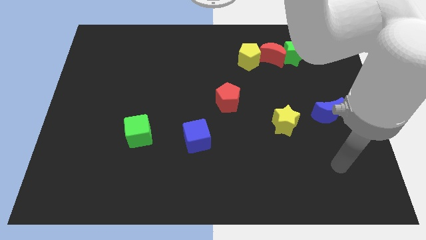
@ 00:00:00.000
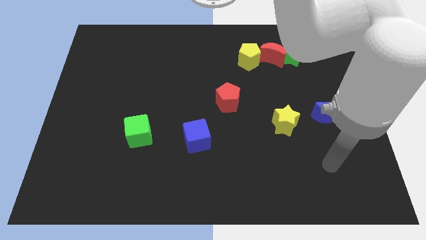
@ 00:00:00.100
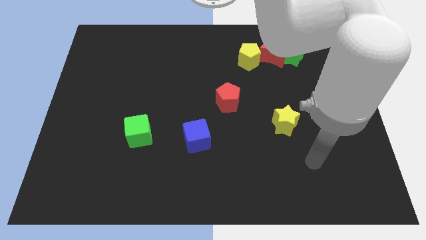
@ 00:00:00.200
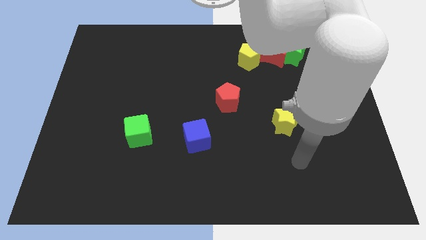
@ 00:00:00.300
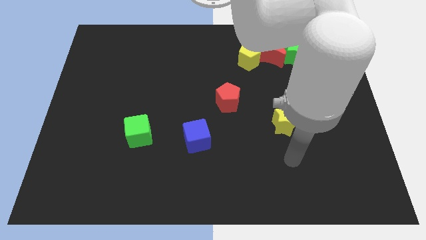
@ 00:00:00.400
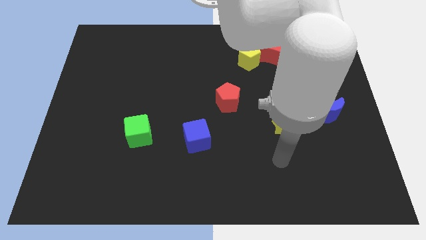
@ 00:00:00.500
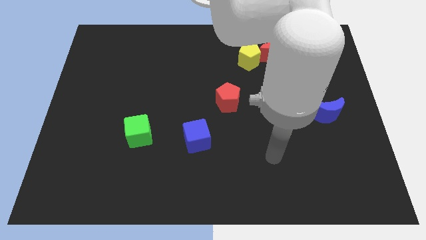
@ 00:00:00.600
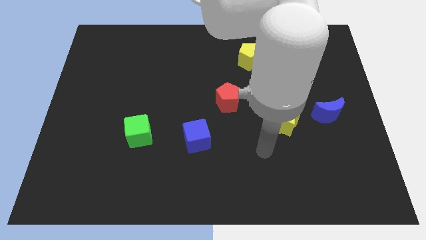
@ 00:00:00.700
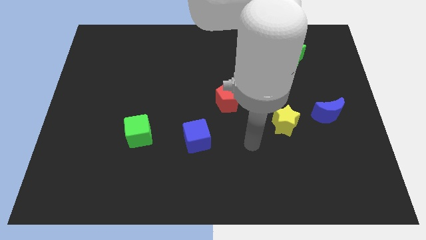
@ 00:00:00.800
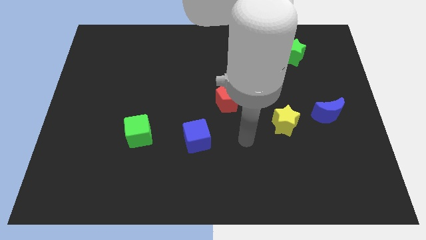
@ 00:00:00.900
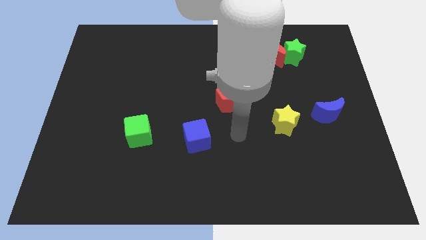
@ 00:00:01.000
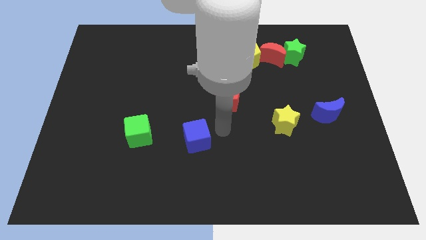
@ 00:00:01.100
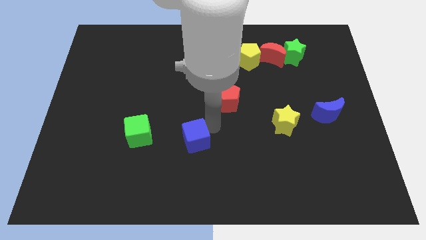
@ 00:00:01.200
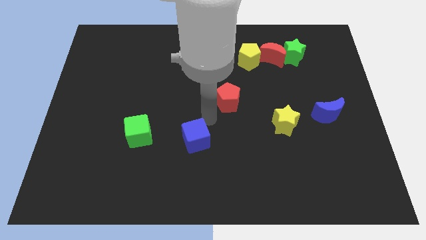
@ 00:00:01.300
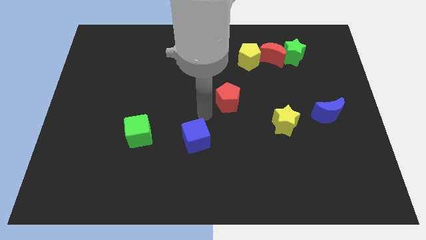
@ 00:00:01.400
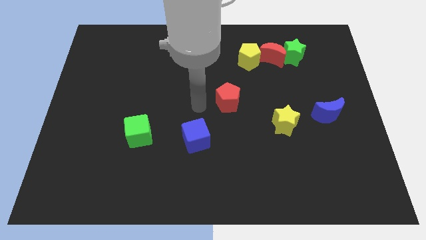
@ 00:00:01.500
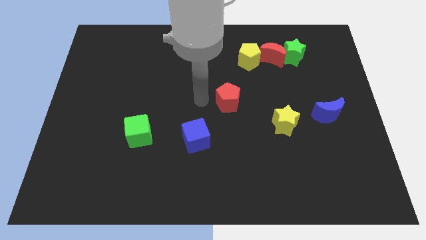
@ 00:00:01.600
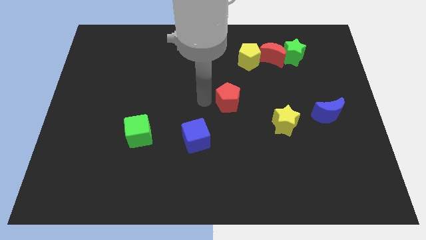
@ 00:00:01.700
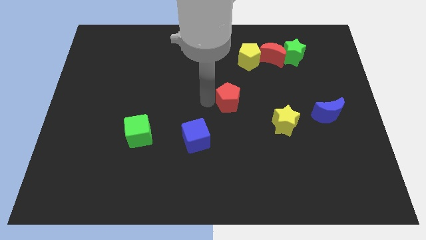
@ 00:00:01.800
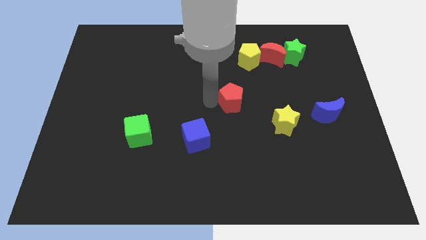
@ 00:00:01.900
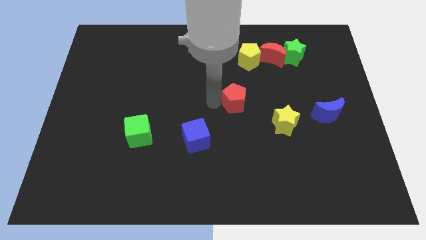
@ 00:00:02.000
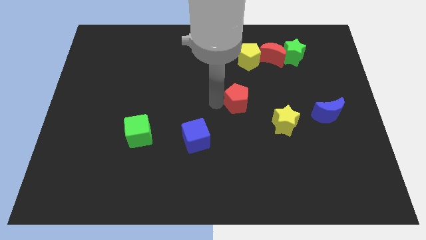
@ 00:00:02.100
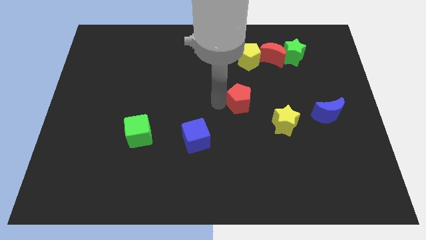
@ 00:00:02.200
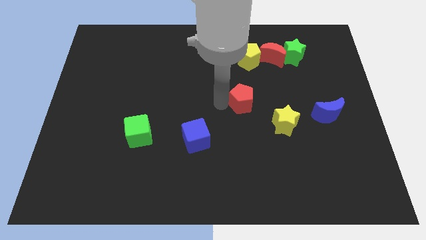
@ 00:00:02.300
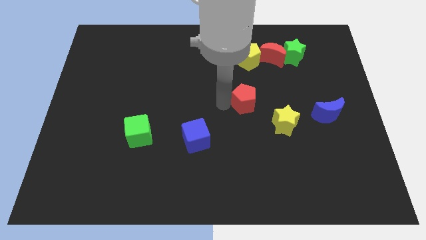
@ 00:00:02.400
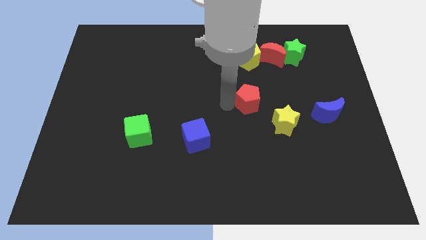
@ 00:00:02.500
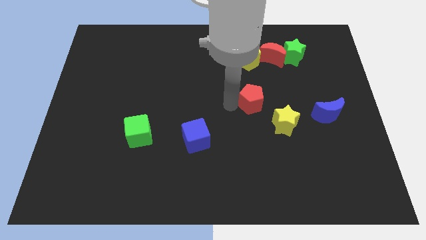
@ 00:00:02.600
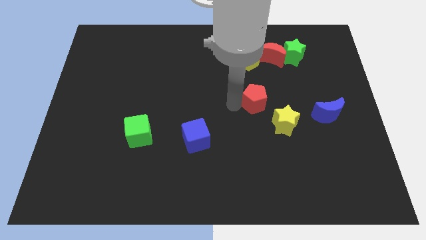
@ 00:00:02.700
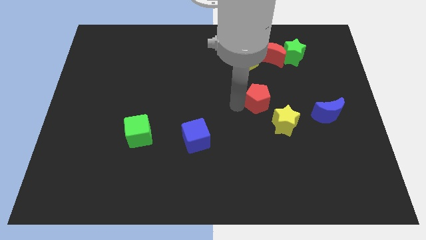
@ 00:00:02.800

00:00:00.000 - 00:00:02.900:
slightly slide the red pentagon right

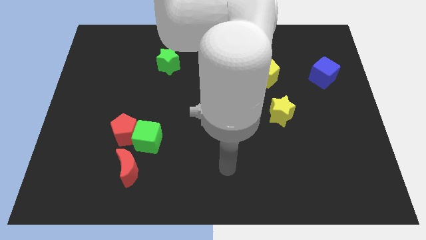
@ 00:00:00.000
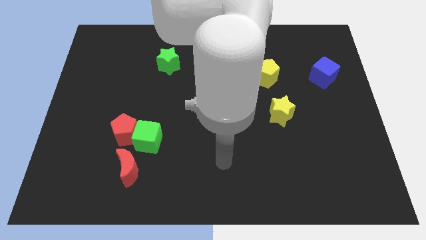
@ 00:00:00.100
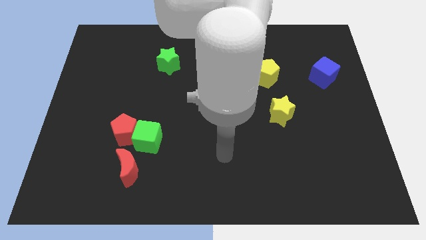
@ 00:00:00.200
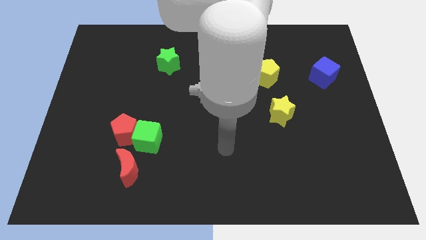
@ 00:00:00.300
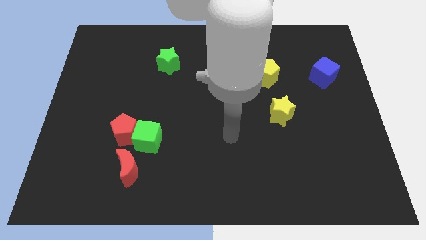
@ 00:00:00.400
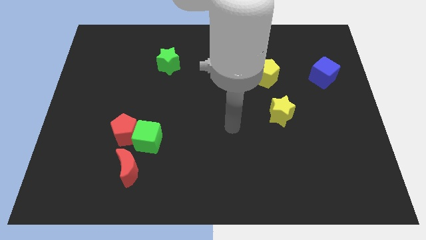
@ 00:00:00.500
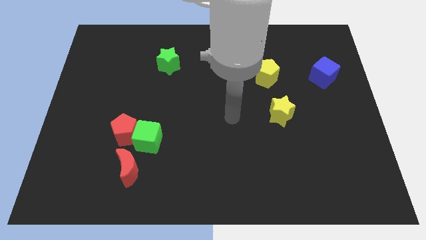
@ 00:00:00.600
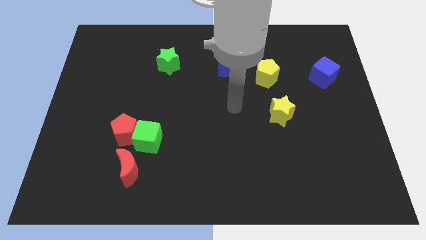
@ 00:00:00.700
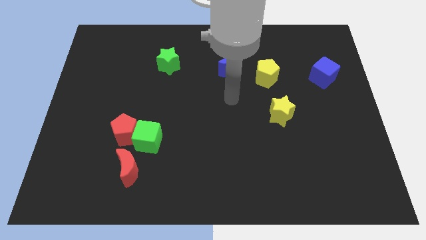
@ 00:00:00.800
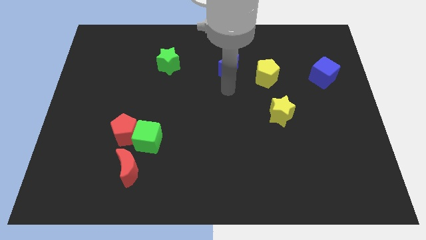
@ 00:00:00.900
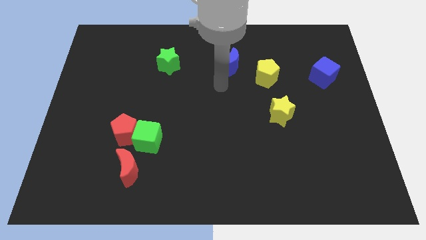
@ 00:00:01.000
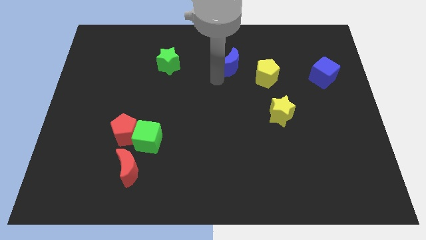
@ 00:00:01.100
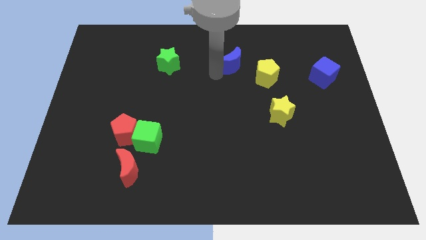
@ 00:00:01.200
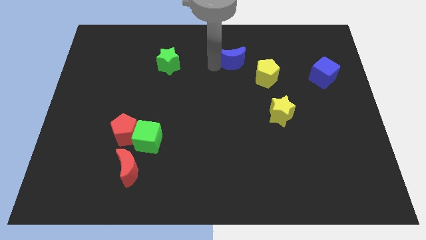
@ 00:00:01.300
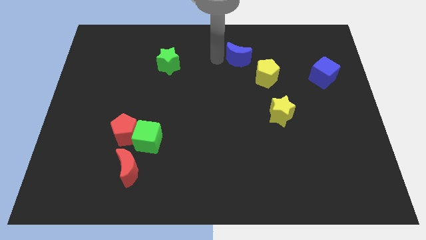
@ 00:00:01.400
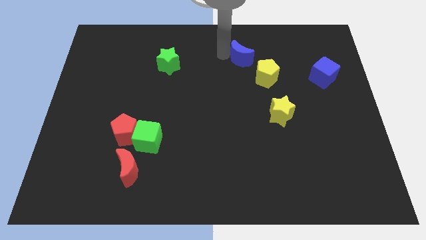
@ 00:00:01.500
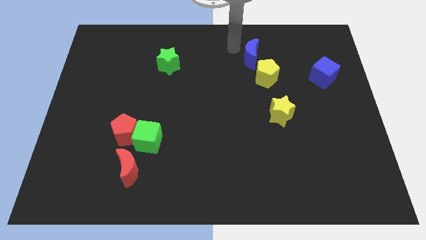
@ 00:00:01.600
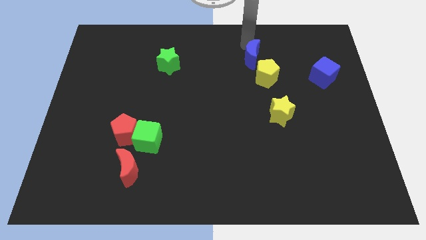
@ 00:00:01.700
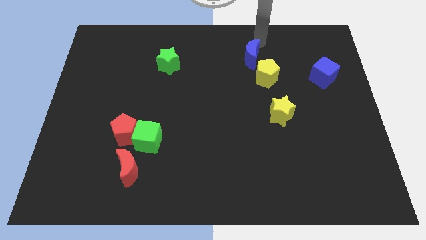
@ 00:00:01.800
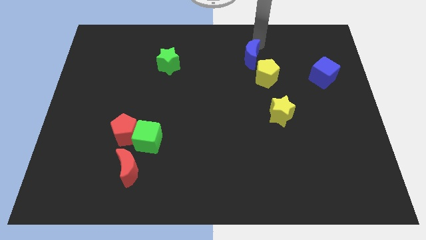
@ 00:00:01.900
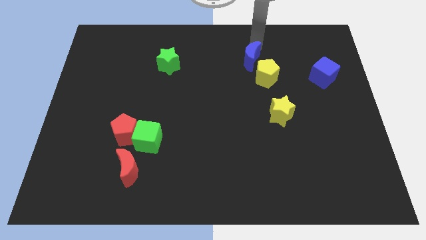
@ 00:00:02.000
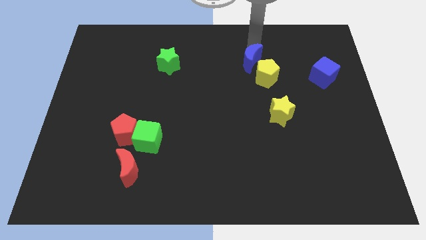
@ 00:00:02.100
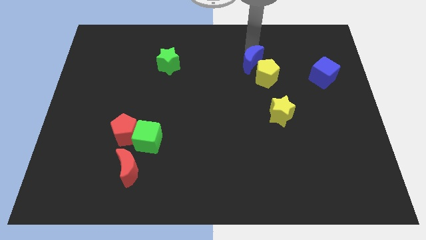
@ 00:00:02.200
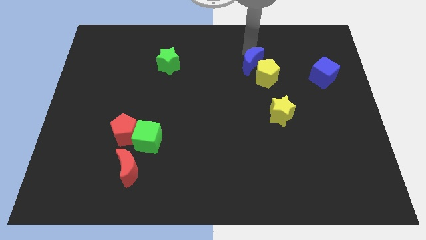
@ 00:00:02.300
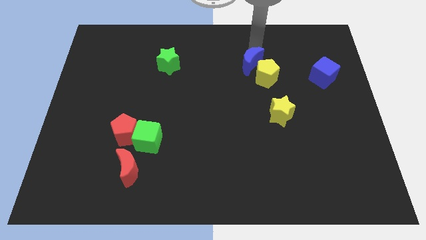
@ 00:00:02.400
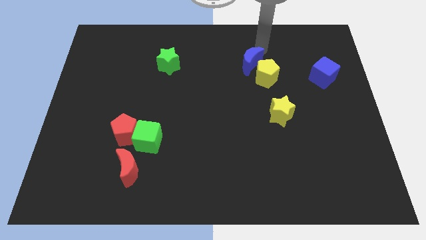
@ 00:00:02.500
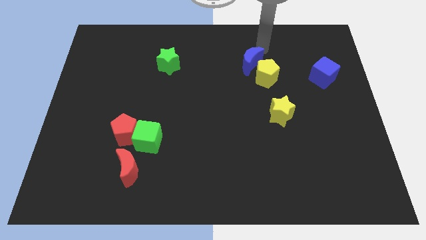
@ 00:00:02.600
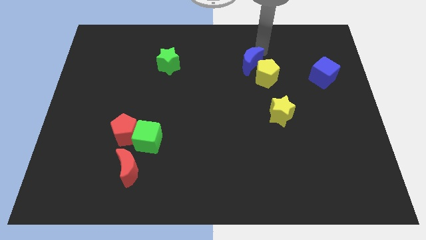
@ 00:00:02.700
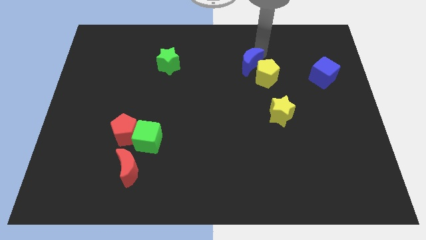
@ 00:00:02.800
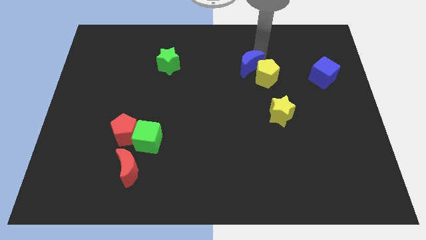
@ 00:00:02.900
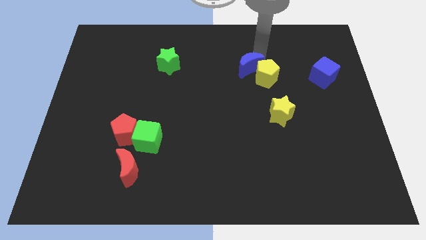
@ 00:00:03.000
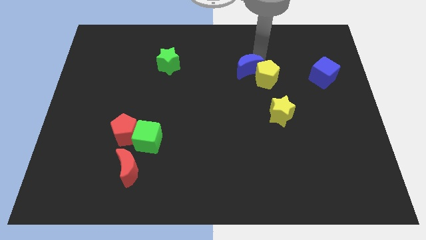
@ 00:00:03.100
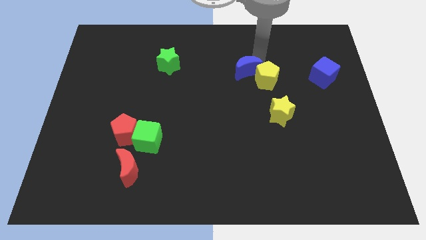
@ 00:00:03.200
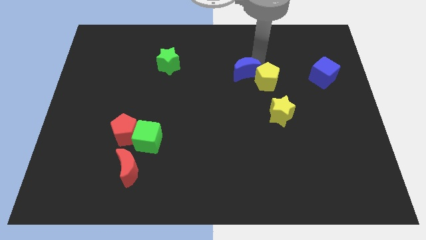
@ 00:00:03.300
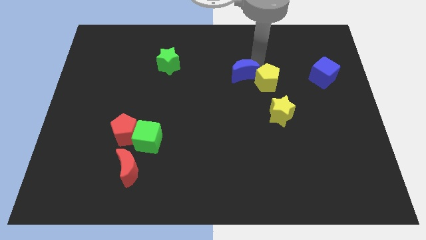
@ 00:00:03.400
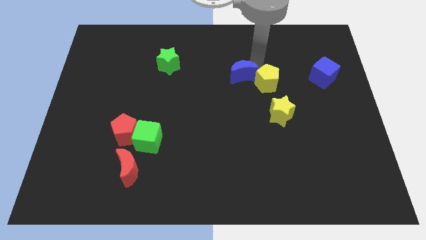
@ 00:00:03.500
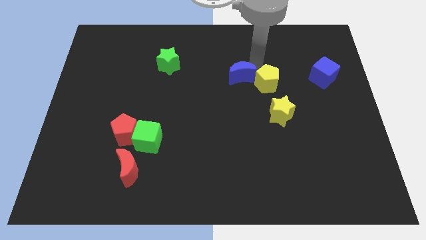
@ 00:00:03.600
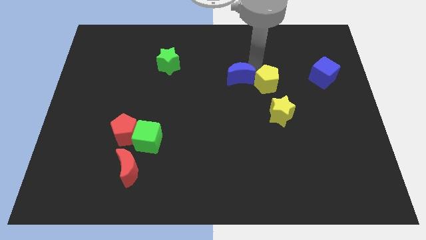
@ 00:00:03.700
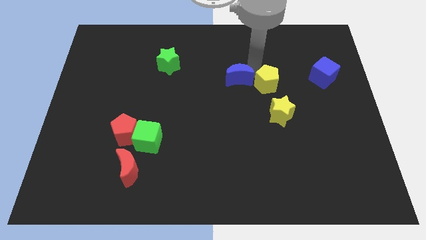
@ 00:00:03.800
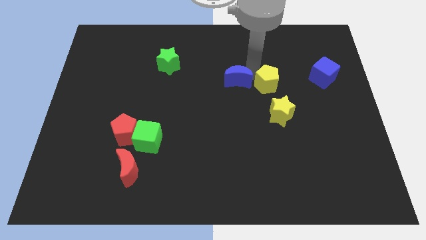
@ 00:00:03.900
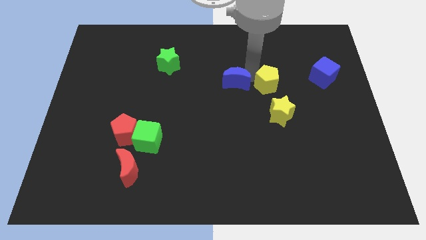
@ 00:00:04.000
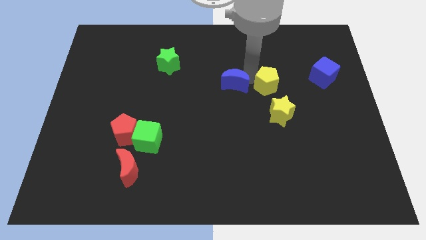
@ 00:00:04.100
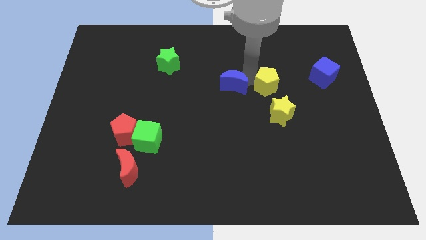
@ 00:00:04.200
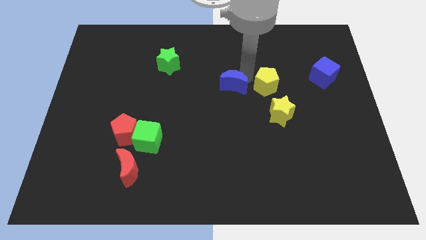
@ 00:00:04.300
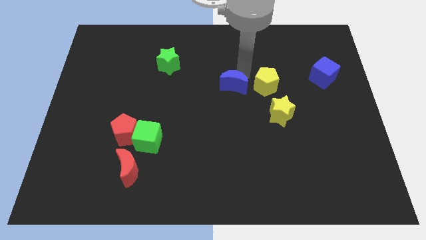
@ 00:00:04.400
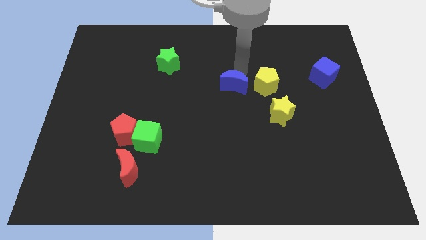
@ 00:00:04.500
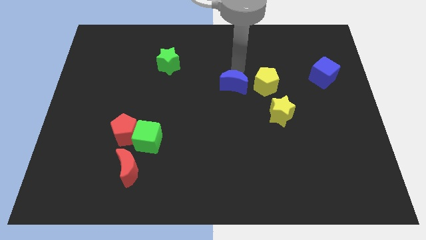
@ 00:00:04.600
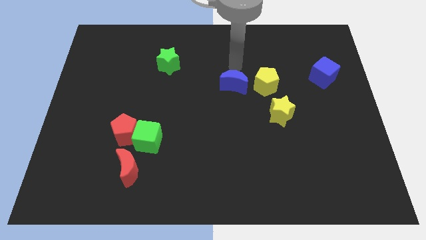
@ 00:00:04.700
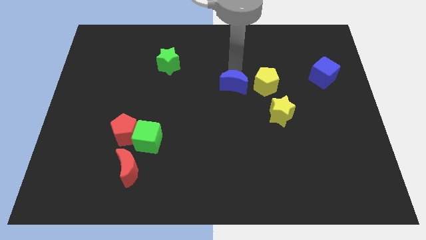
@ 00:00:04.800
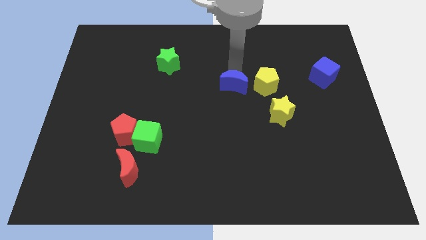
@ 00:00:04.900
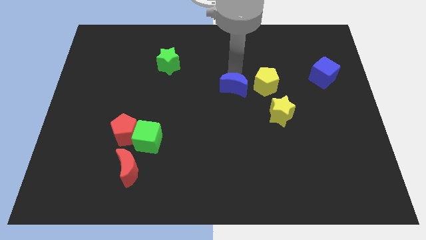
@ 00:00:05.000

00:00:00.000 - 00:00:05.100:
slightly move the blue moon downwards
